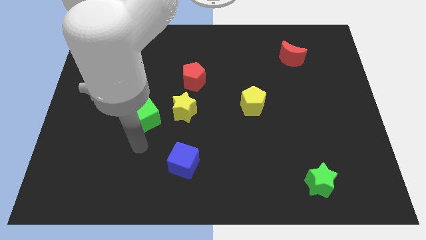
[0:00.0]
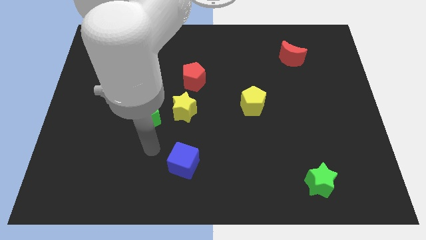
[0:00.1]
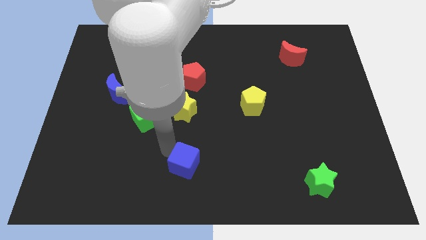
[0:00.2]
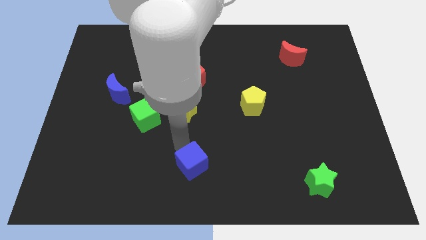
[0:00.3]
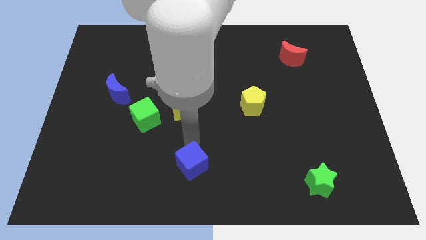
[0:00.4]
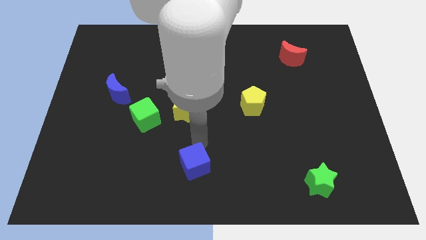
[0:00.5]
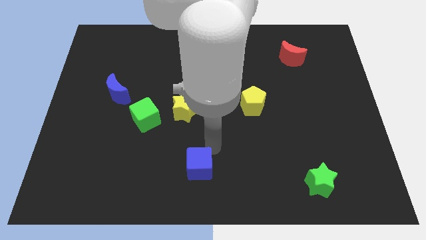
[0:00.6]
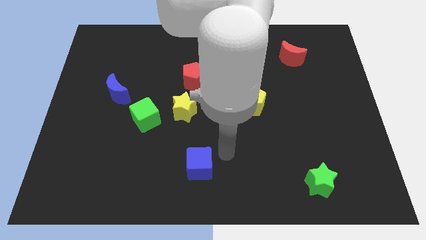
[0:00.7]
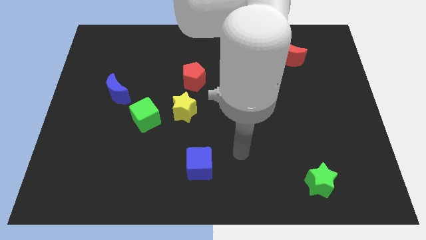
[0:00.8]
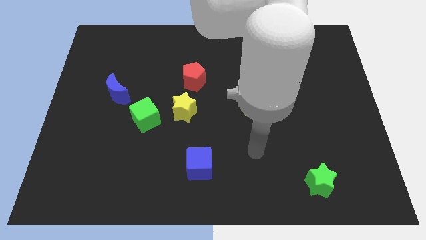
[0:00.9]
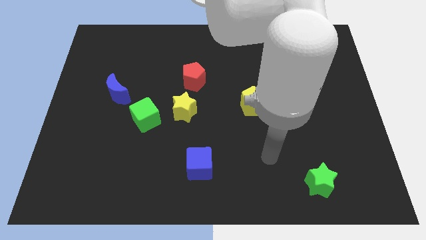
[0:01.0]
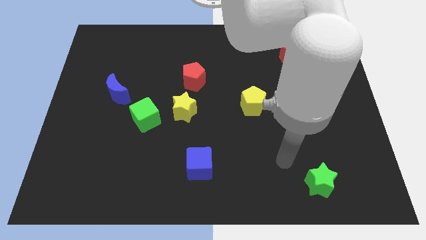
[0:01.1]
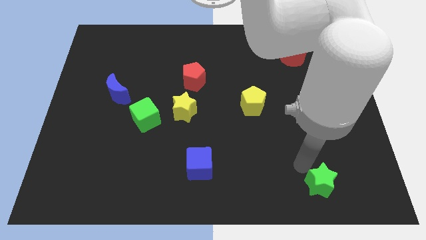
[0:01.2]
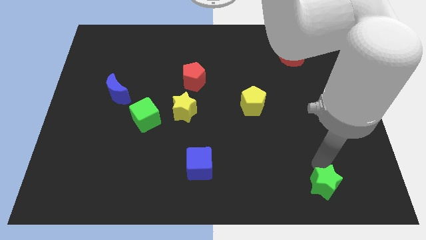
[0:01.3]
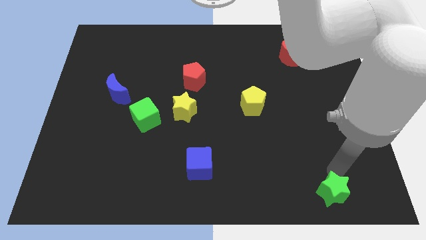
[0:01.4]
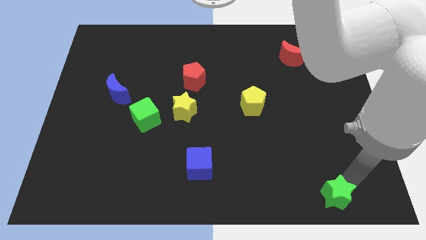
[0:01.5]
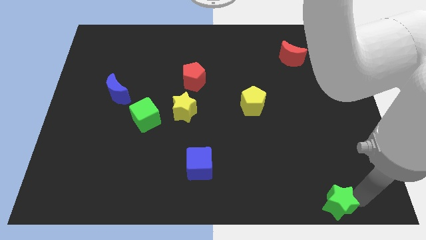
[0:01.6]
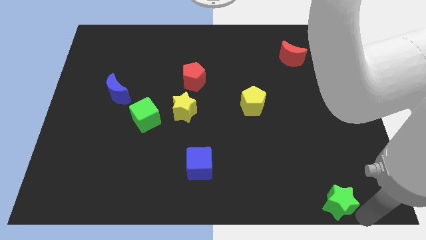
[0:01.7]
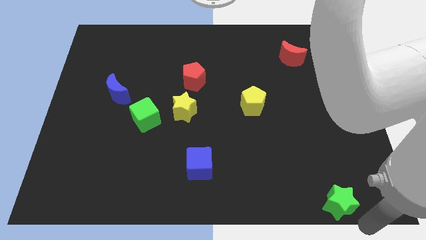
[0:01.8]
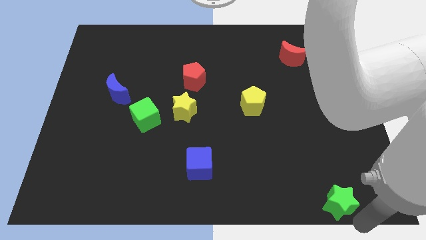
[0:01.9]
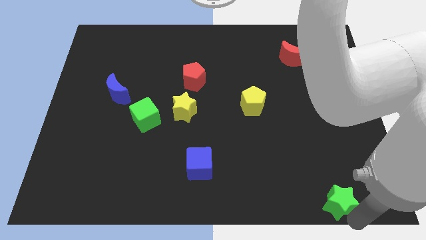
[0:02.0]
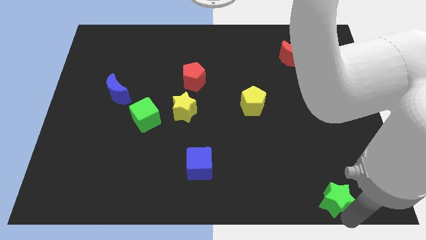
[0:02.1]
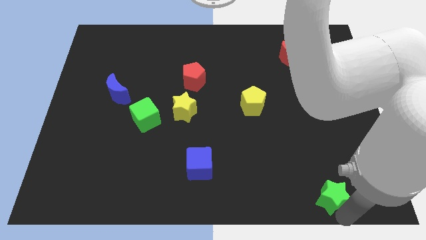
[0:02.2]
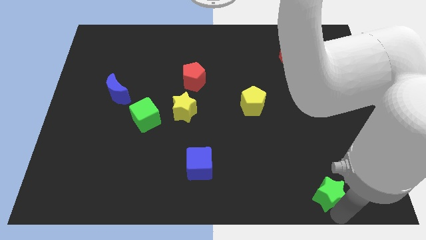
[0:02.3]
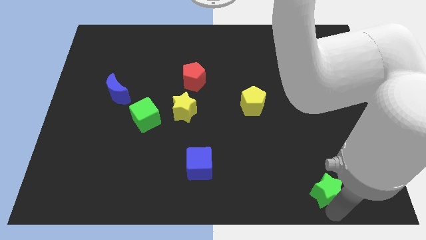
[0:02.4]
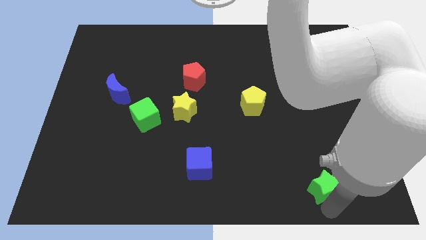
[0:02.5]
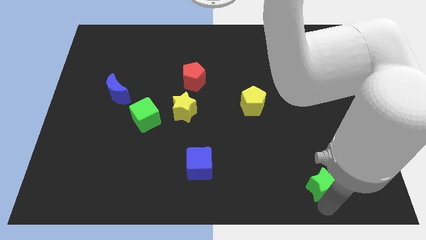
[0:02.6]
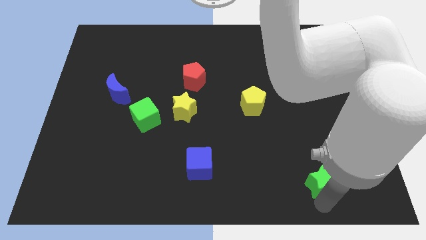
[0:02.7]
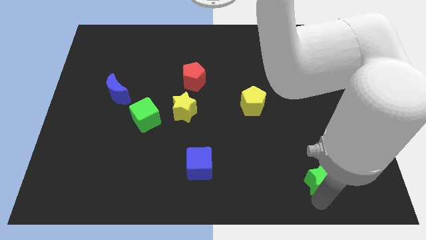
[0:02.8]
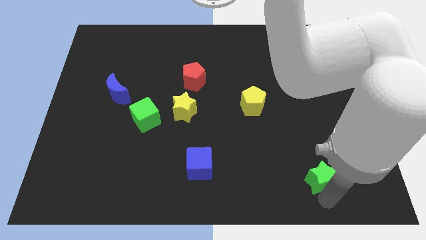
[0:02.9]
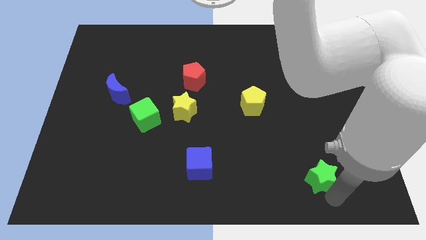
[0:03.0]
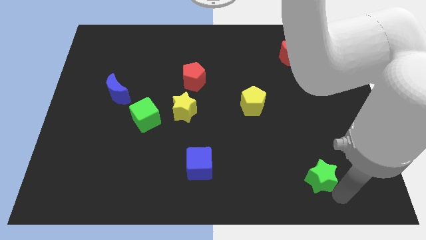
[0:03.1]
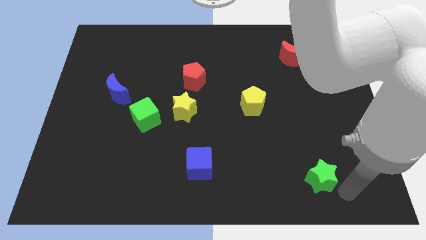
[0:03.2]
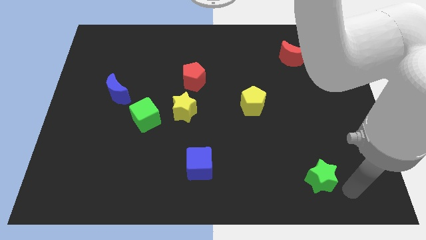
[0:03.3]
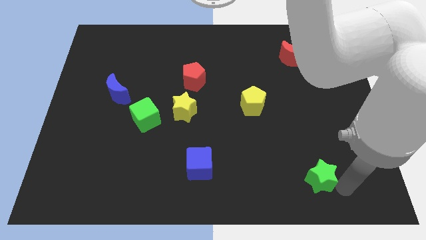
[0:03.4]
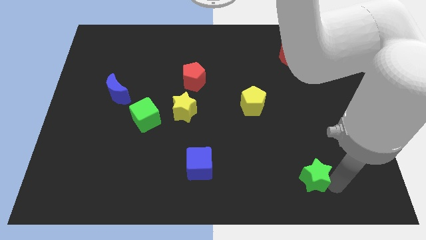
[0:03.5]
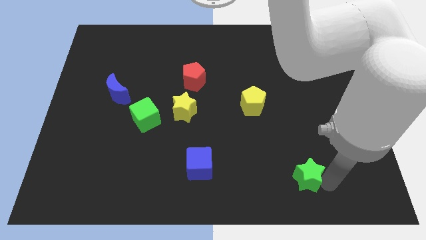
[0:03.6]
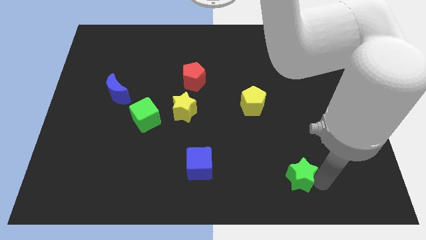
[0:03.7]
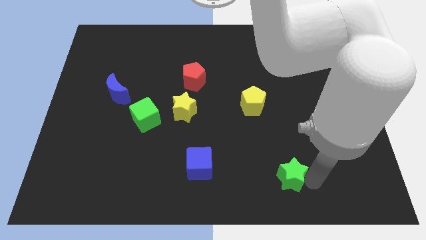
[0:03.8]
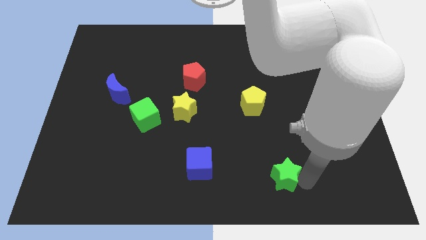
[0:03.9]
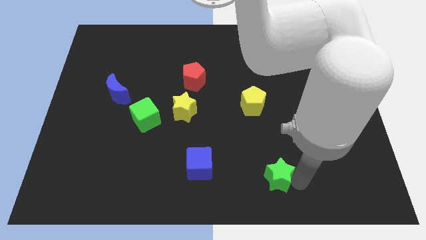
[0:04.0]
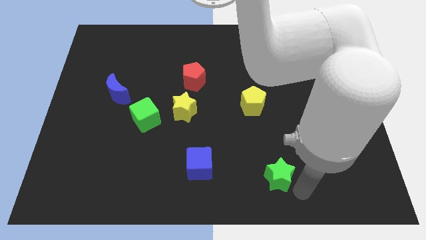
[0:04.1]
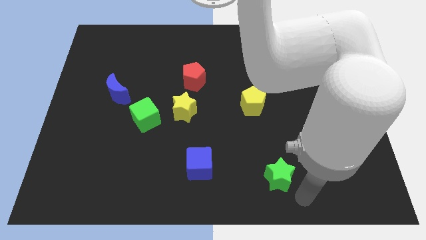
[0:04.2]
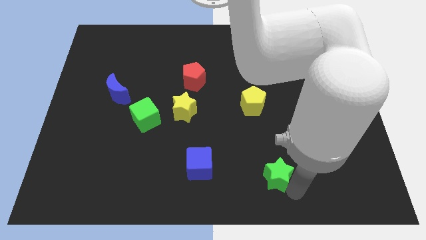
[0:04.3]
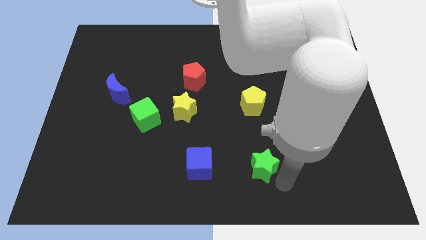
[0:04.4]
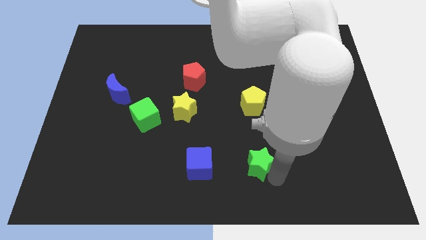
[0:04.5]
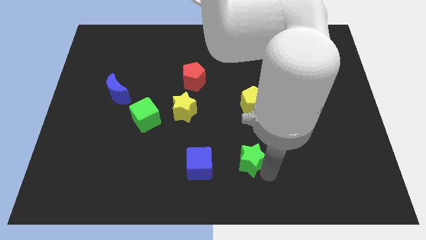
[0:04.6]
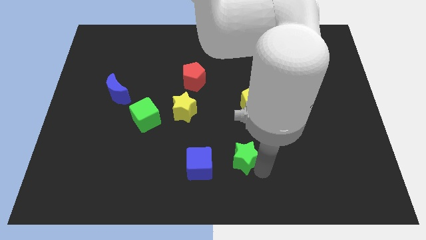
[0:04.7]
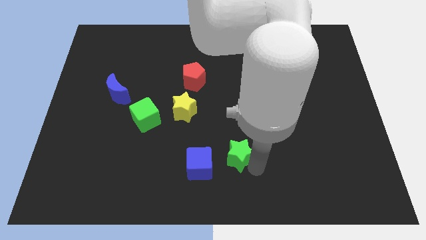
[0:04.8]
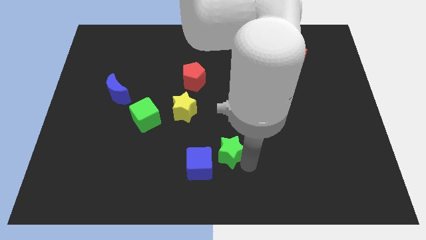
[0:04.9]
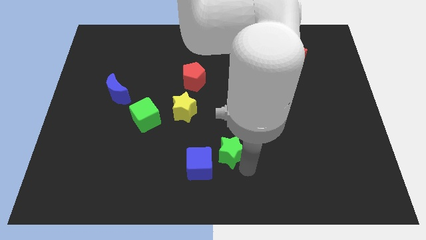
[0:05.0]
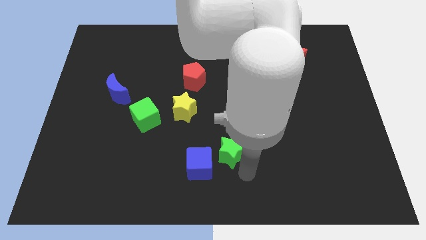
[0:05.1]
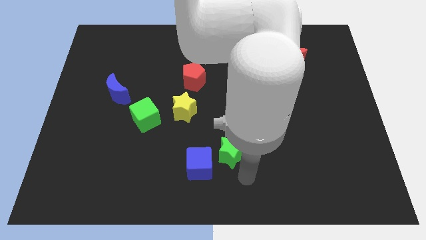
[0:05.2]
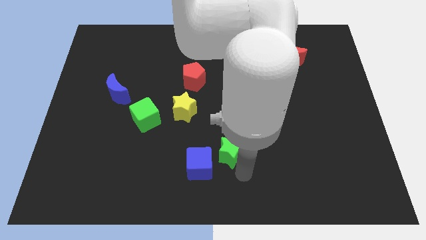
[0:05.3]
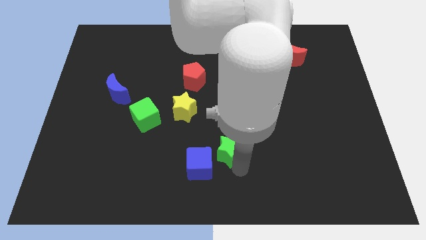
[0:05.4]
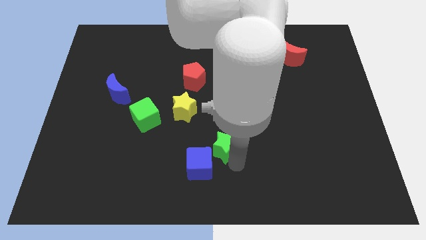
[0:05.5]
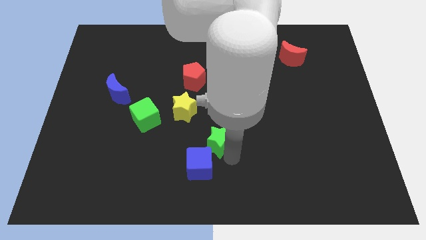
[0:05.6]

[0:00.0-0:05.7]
put the green star to the bottom right side of the yellow star

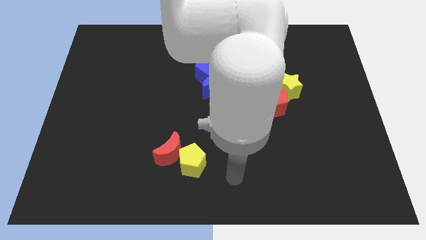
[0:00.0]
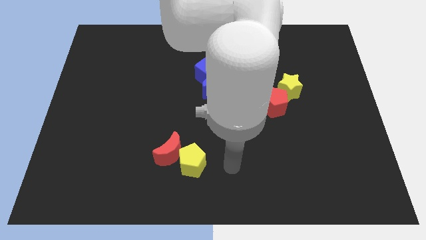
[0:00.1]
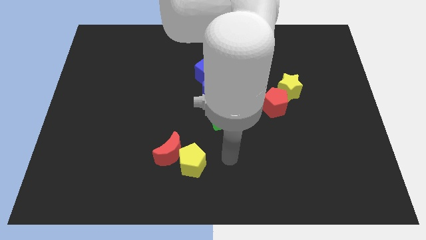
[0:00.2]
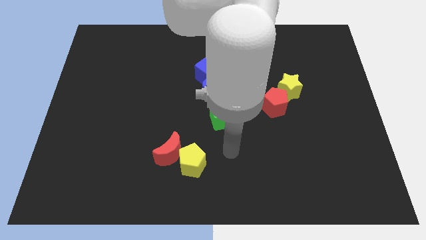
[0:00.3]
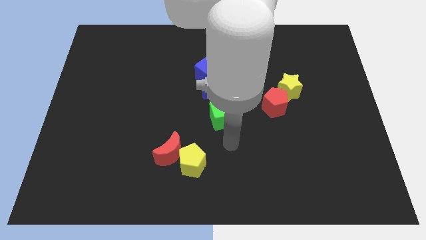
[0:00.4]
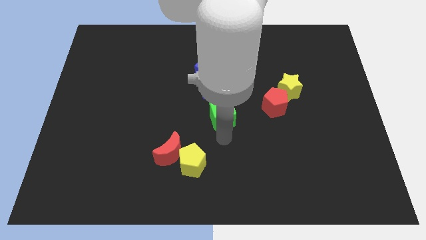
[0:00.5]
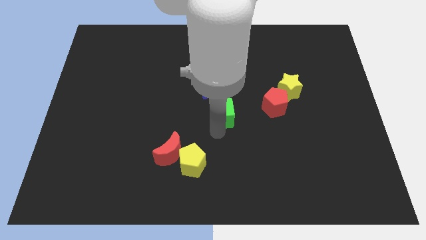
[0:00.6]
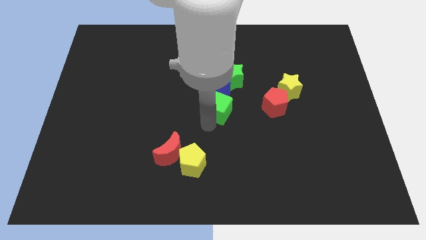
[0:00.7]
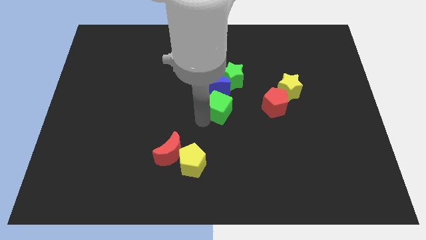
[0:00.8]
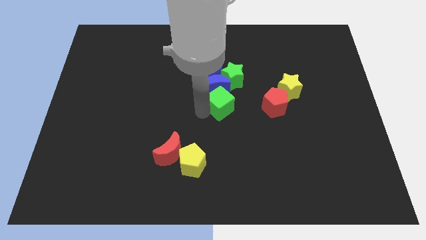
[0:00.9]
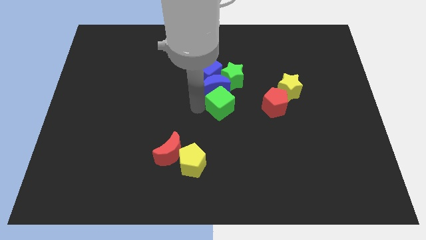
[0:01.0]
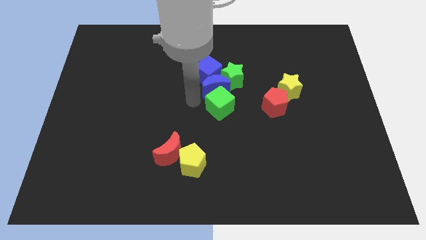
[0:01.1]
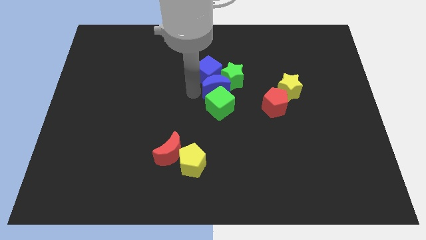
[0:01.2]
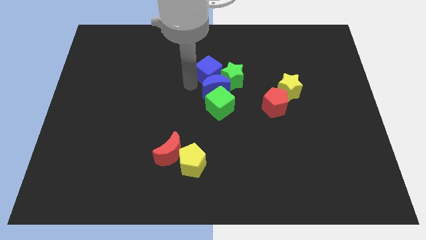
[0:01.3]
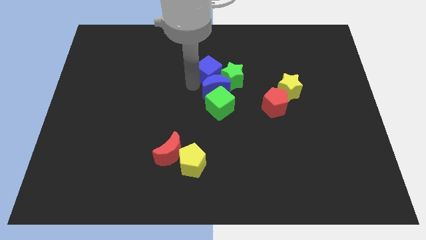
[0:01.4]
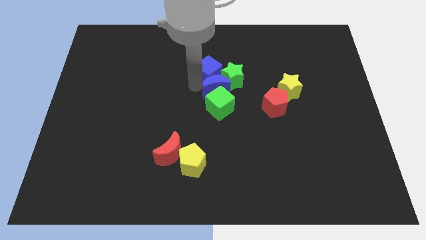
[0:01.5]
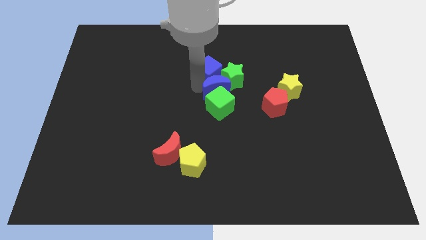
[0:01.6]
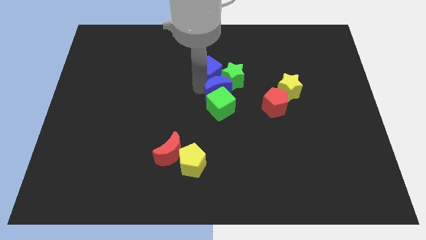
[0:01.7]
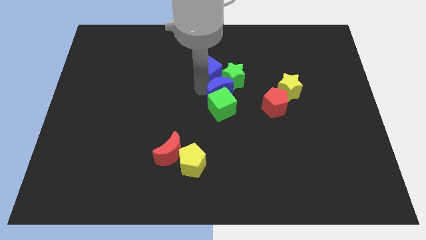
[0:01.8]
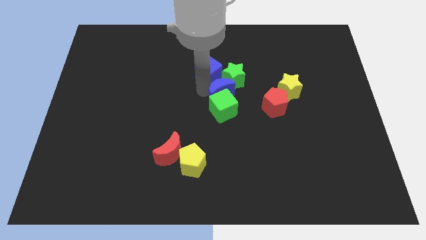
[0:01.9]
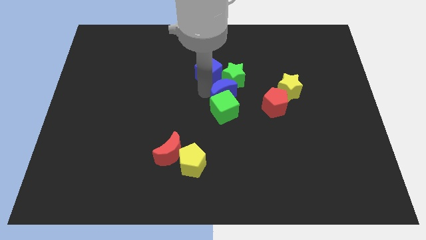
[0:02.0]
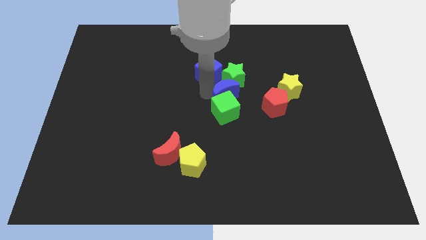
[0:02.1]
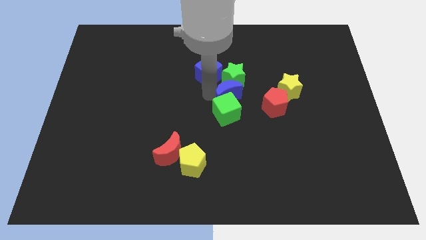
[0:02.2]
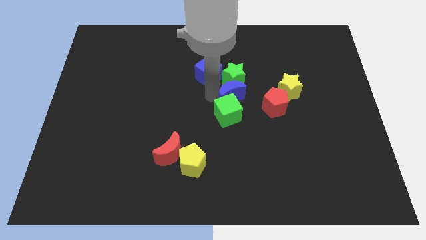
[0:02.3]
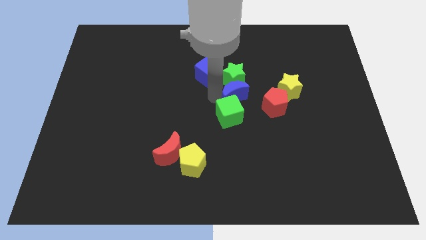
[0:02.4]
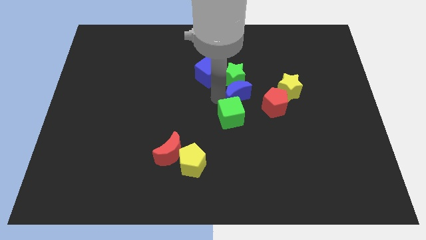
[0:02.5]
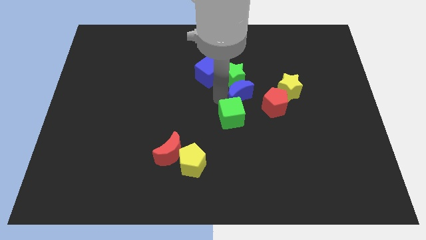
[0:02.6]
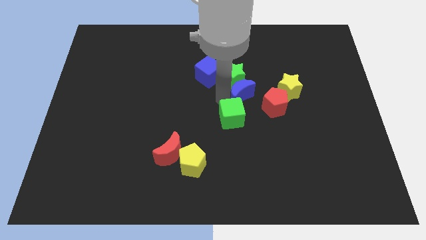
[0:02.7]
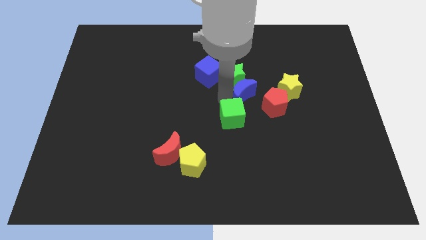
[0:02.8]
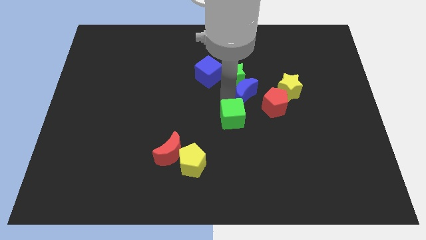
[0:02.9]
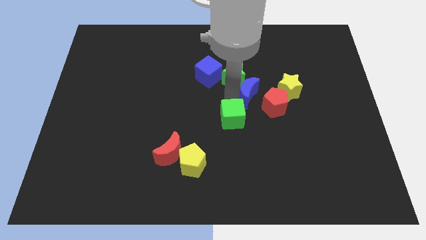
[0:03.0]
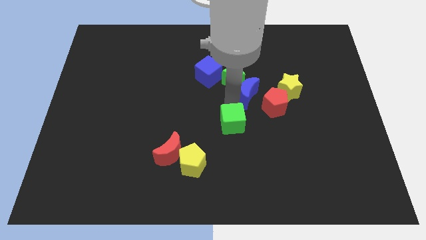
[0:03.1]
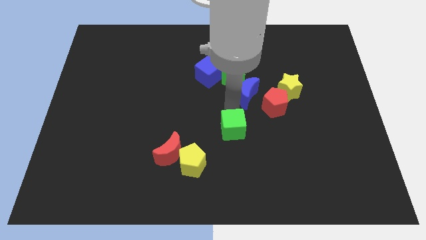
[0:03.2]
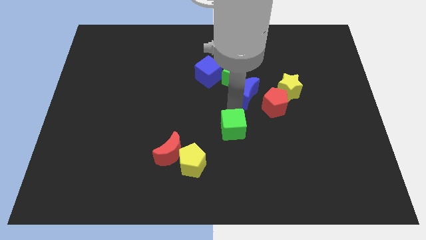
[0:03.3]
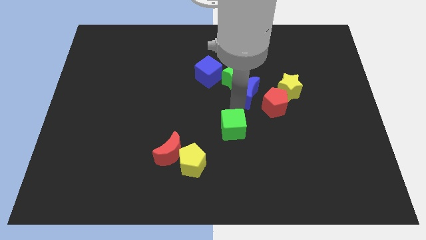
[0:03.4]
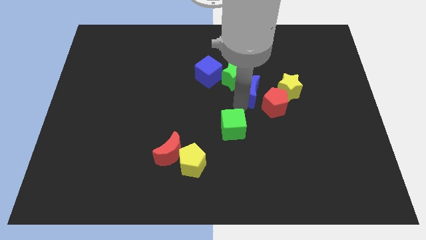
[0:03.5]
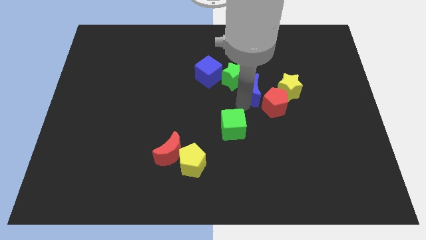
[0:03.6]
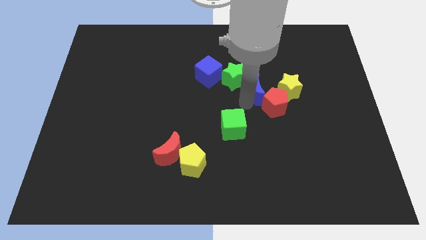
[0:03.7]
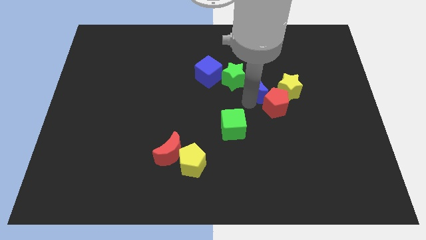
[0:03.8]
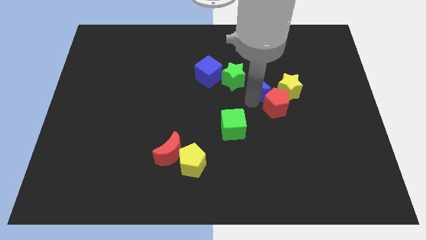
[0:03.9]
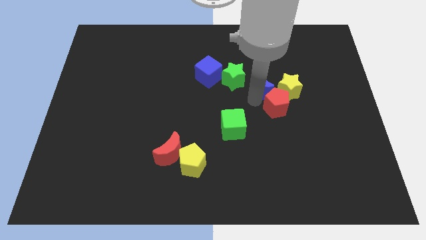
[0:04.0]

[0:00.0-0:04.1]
slide the blue moon to the top left of the yellow star
